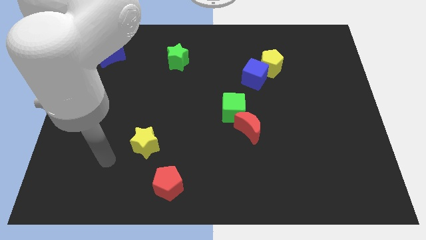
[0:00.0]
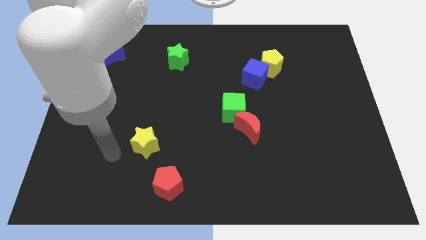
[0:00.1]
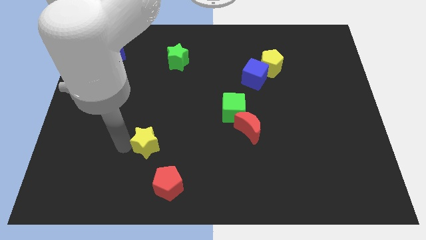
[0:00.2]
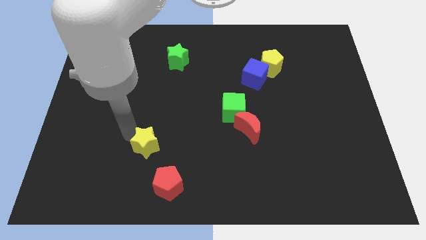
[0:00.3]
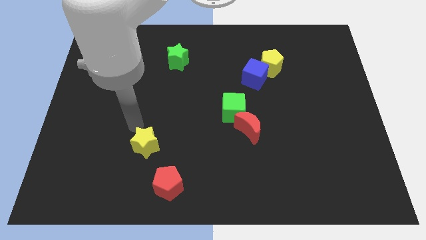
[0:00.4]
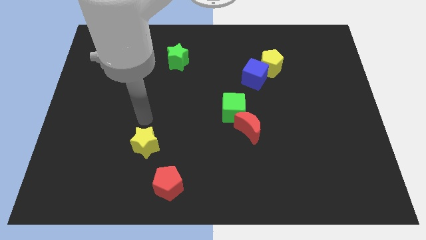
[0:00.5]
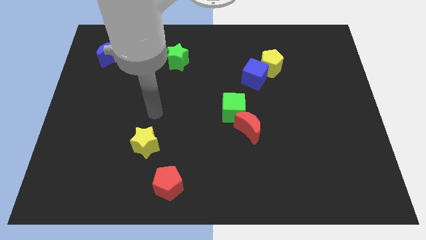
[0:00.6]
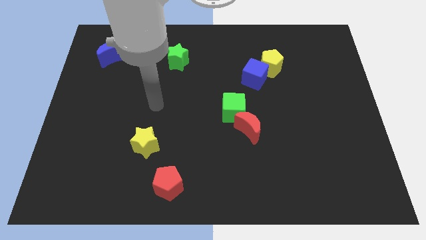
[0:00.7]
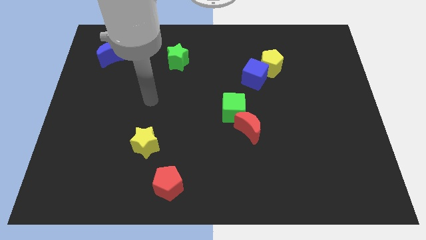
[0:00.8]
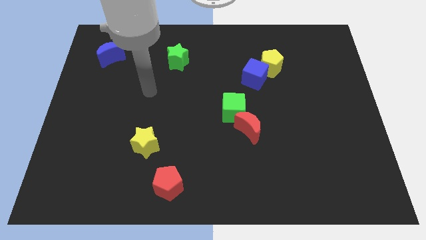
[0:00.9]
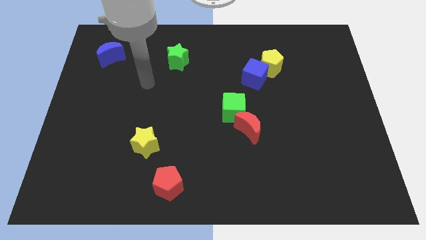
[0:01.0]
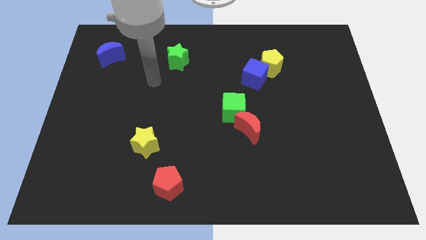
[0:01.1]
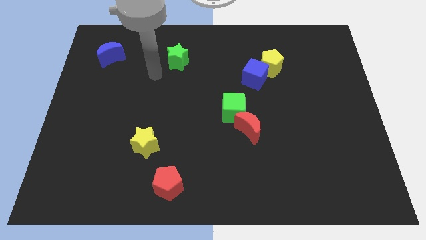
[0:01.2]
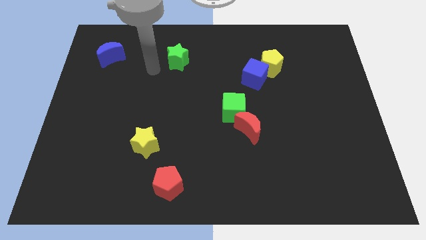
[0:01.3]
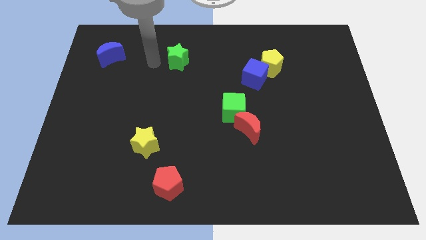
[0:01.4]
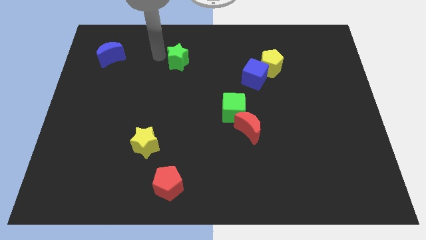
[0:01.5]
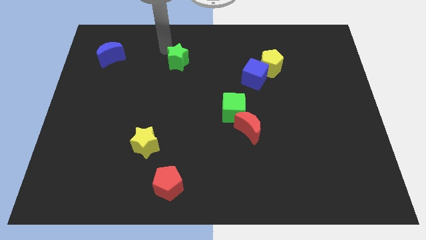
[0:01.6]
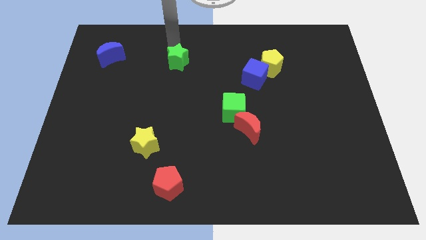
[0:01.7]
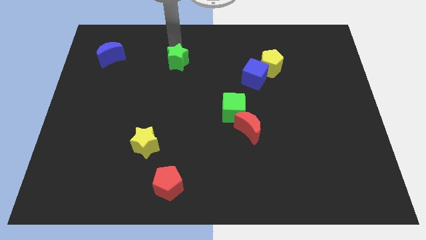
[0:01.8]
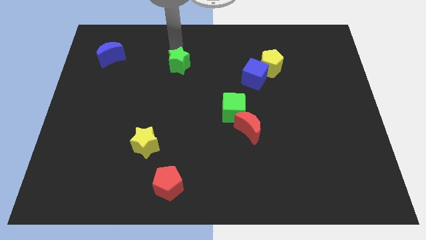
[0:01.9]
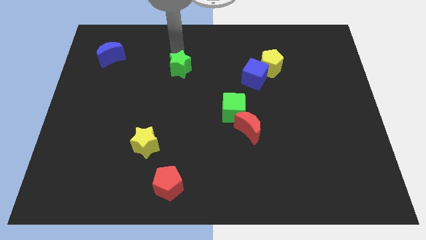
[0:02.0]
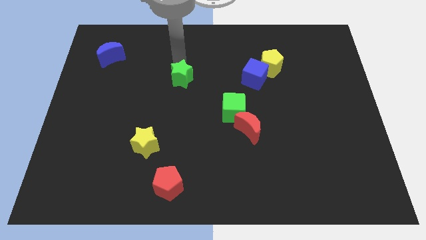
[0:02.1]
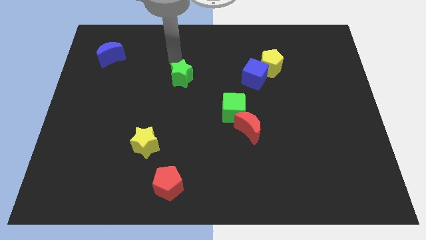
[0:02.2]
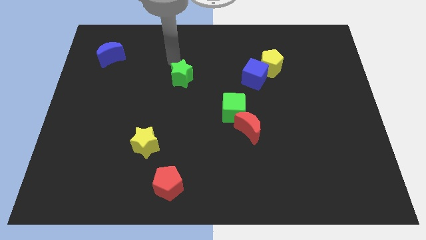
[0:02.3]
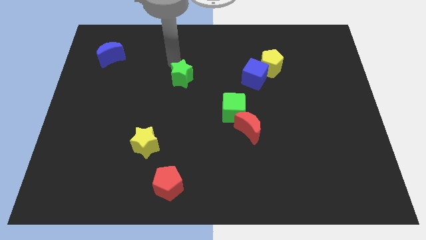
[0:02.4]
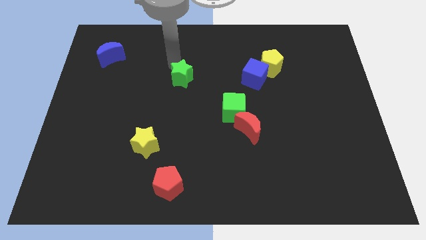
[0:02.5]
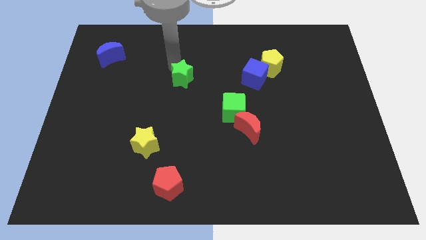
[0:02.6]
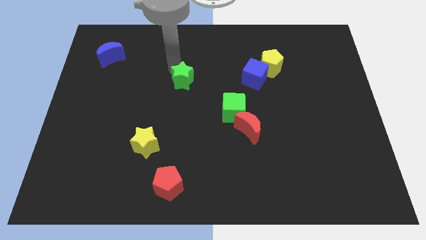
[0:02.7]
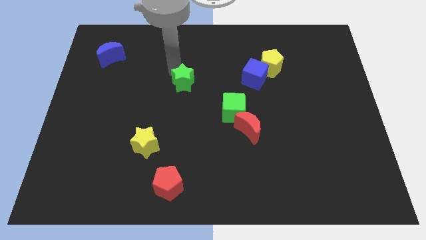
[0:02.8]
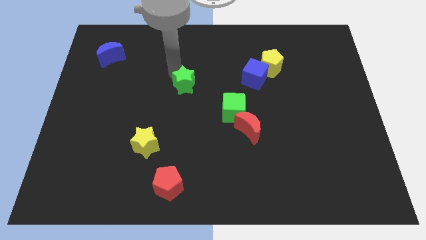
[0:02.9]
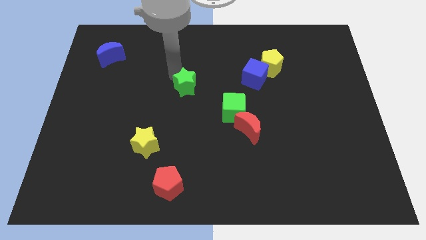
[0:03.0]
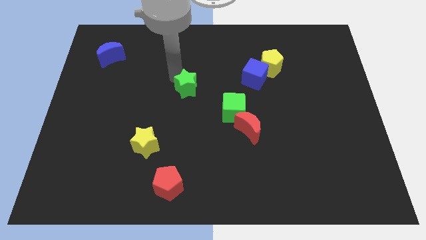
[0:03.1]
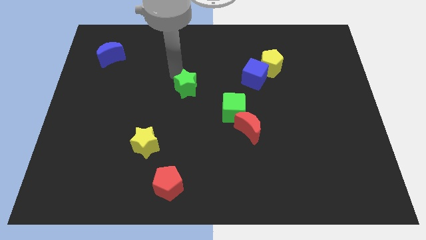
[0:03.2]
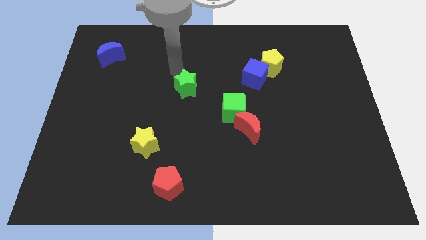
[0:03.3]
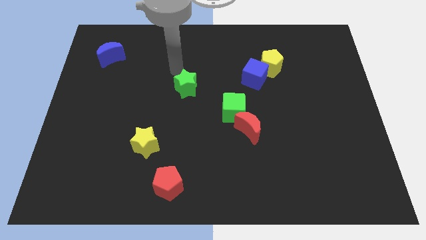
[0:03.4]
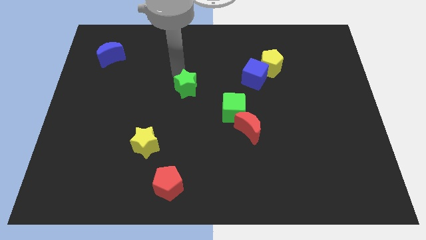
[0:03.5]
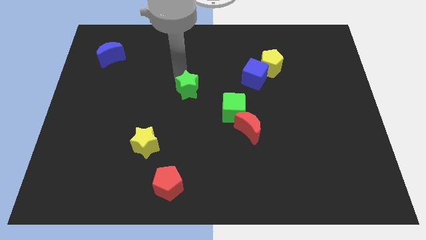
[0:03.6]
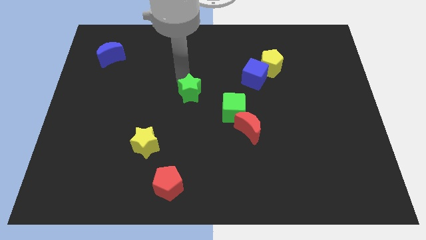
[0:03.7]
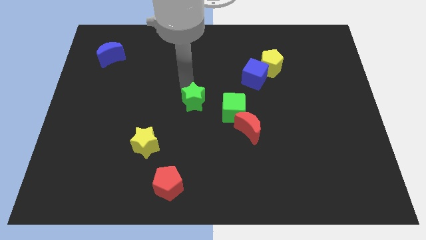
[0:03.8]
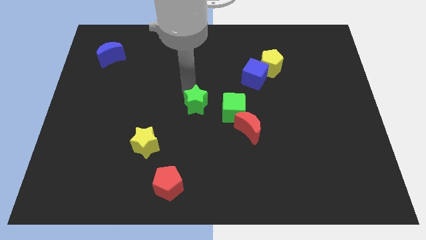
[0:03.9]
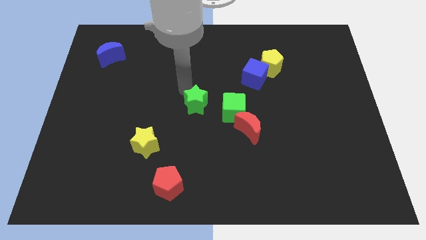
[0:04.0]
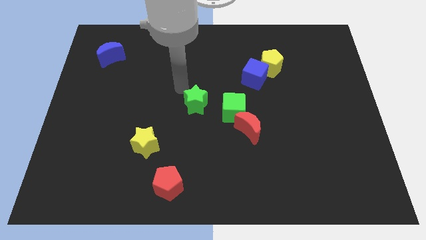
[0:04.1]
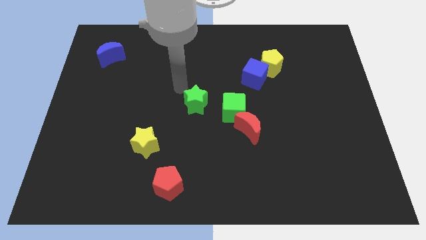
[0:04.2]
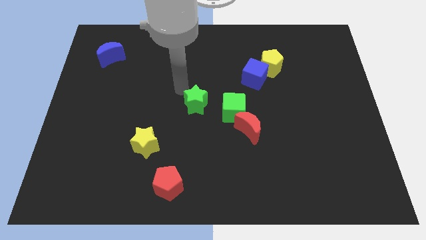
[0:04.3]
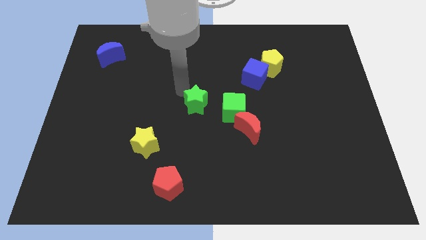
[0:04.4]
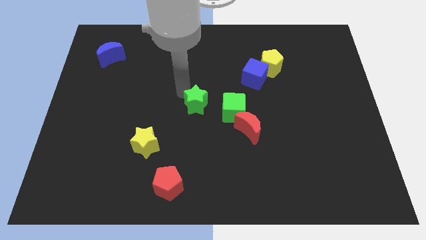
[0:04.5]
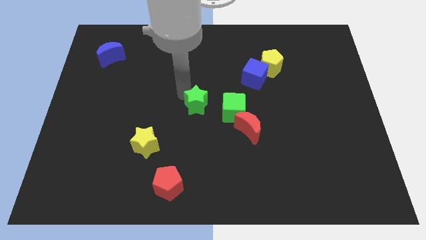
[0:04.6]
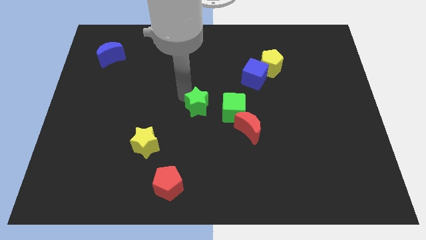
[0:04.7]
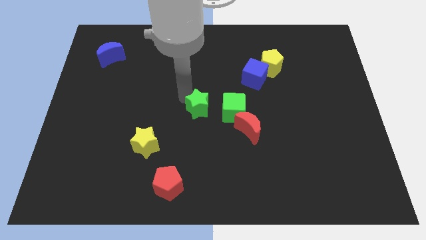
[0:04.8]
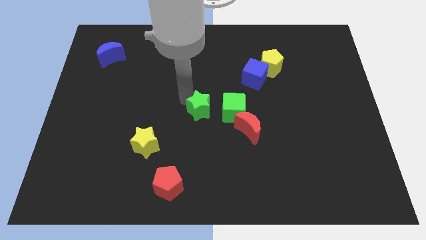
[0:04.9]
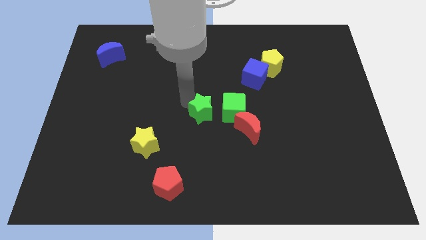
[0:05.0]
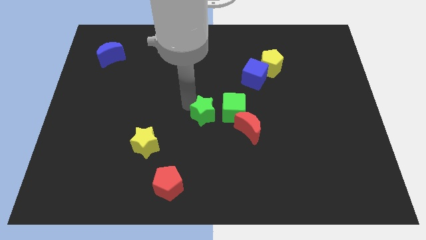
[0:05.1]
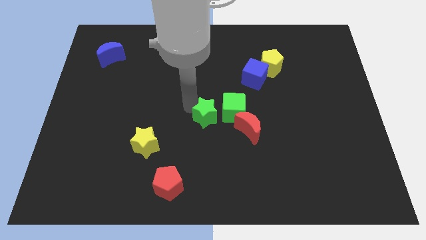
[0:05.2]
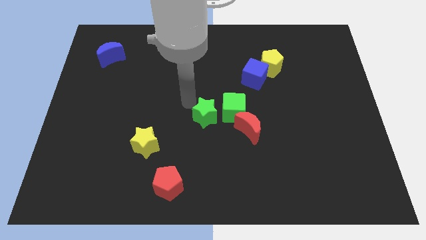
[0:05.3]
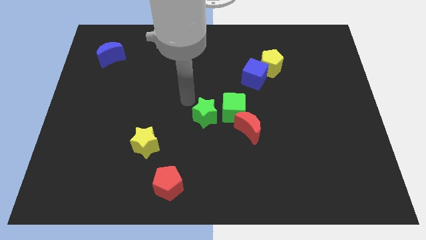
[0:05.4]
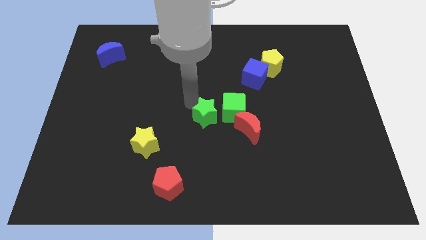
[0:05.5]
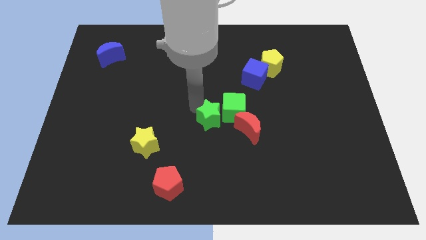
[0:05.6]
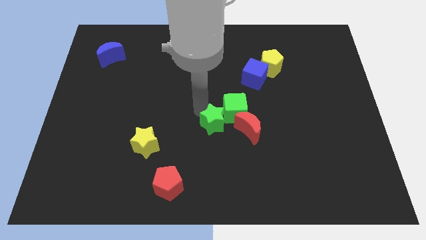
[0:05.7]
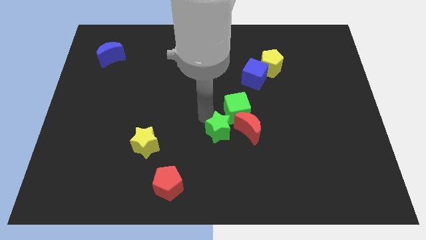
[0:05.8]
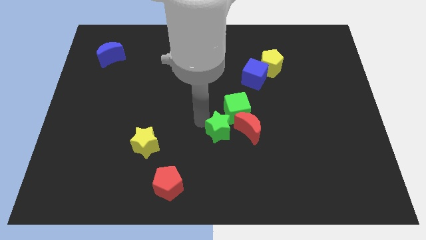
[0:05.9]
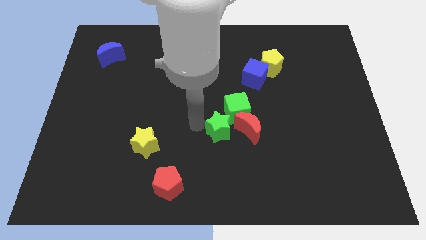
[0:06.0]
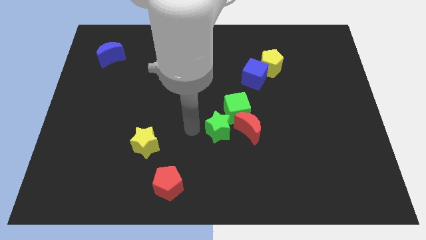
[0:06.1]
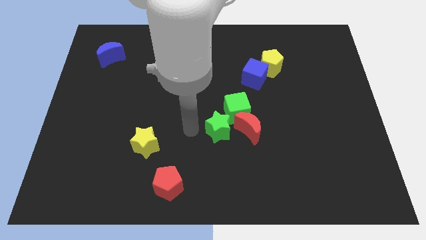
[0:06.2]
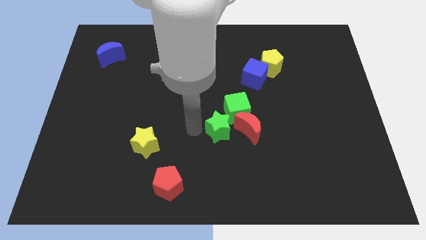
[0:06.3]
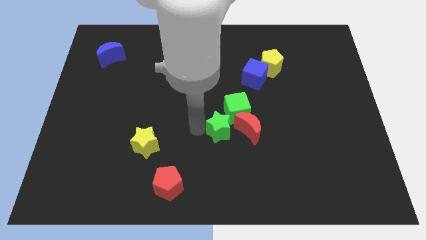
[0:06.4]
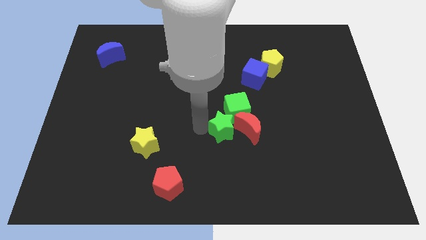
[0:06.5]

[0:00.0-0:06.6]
slide the green star next to the red moon
